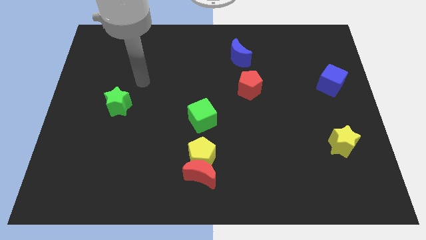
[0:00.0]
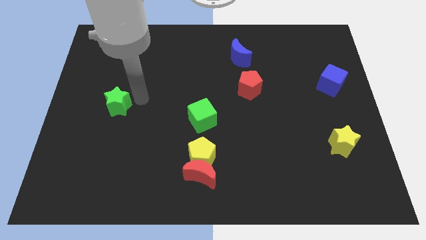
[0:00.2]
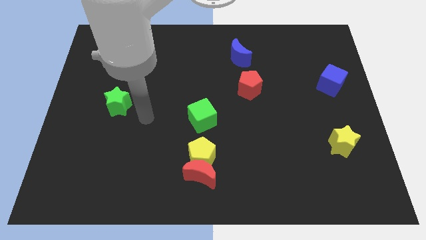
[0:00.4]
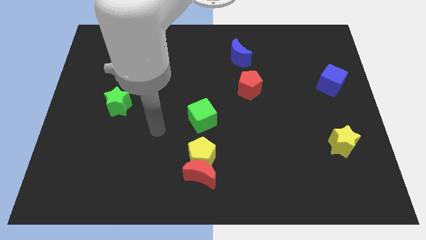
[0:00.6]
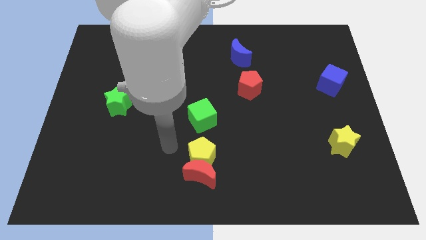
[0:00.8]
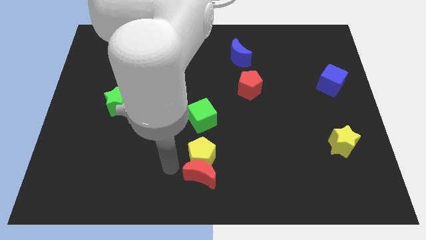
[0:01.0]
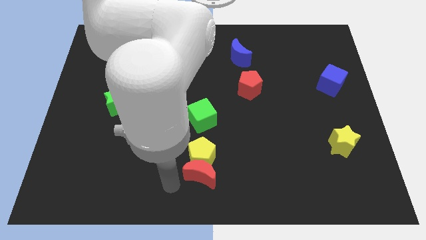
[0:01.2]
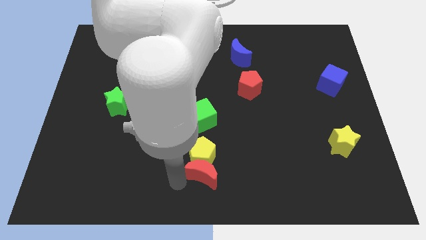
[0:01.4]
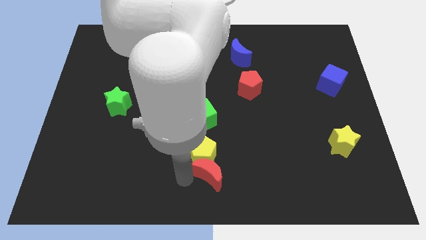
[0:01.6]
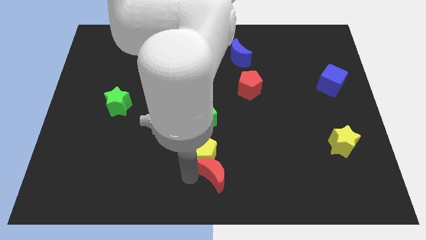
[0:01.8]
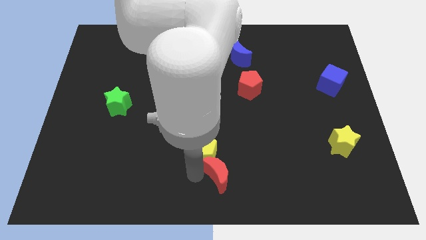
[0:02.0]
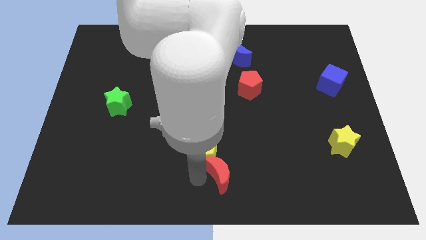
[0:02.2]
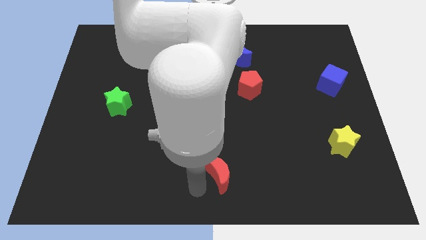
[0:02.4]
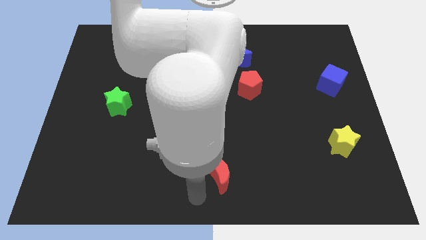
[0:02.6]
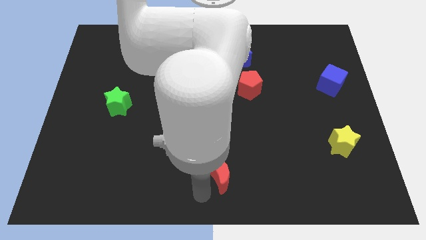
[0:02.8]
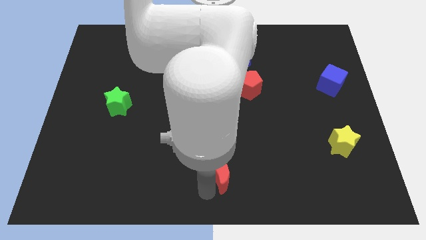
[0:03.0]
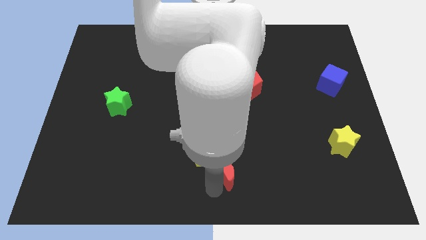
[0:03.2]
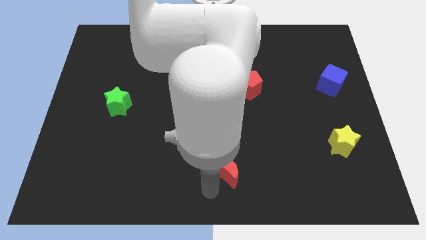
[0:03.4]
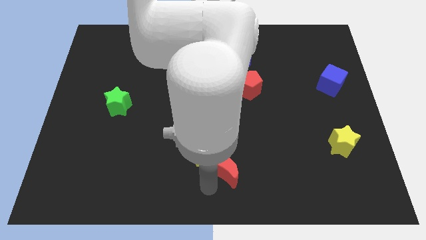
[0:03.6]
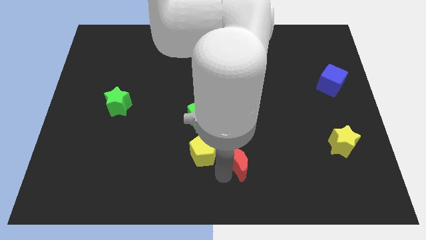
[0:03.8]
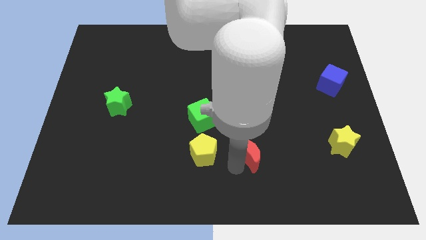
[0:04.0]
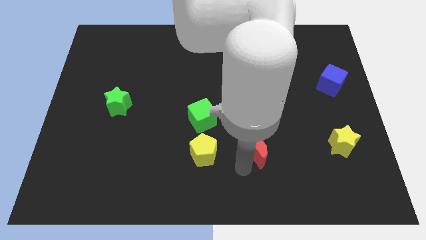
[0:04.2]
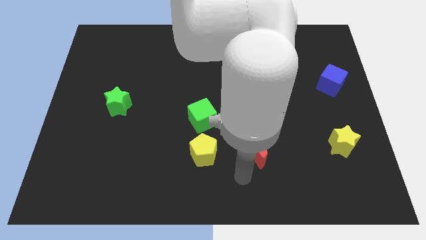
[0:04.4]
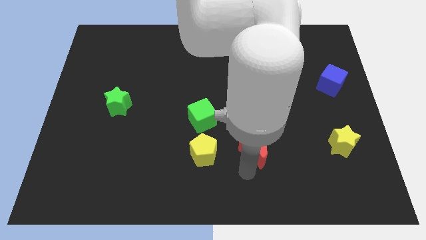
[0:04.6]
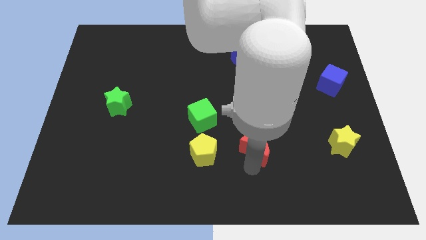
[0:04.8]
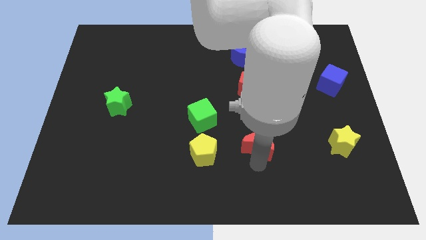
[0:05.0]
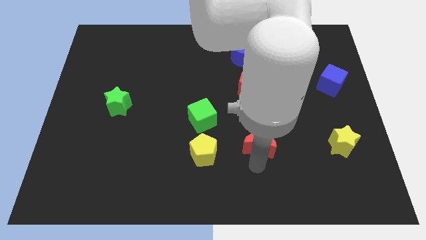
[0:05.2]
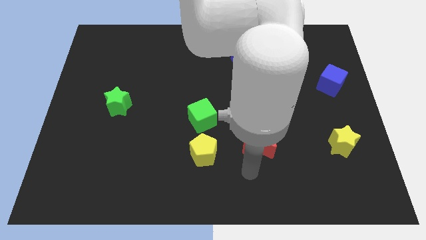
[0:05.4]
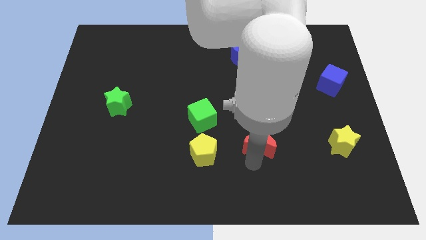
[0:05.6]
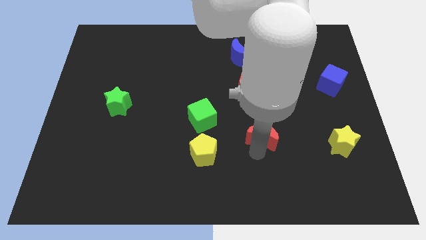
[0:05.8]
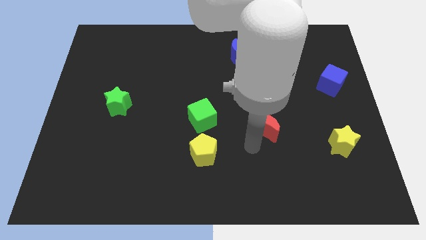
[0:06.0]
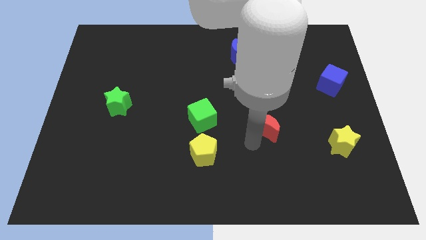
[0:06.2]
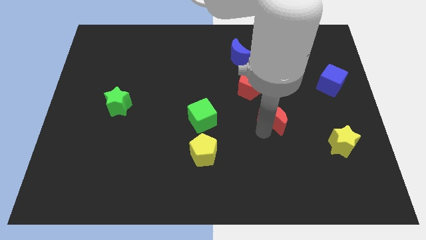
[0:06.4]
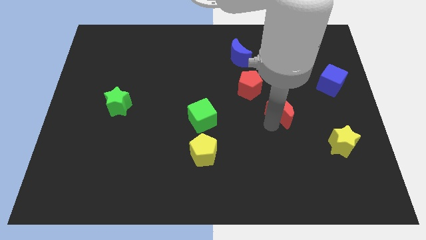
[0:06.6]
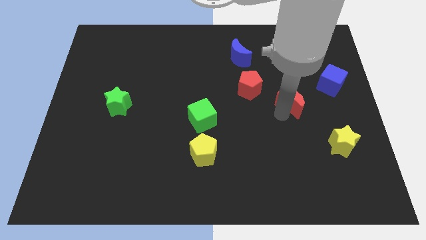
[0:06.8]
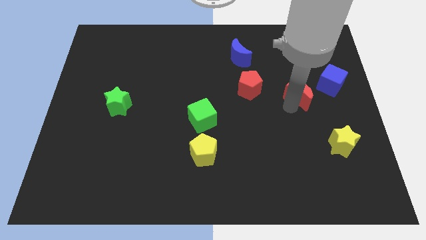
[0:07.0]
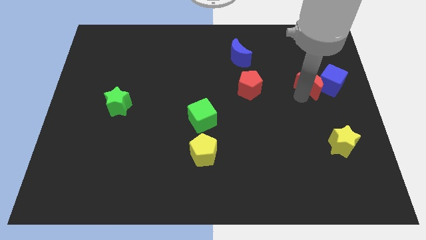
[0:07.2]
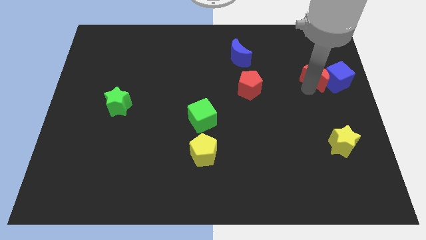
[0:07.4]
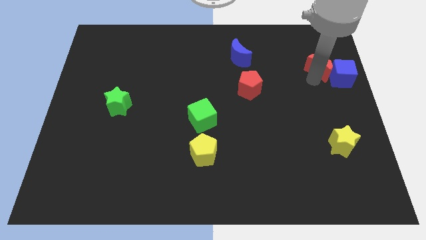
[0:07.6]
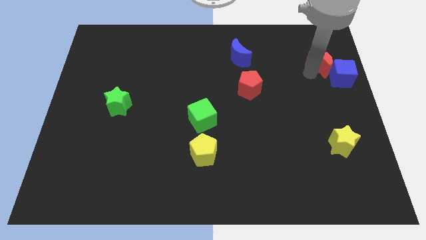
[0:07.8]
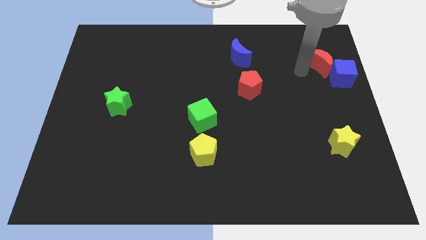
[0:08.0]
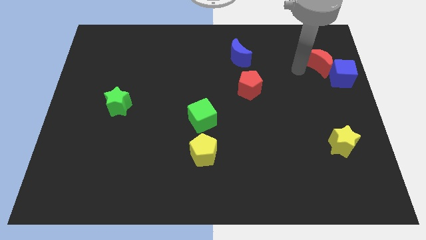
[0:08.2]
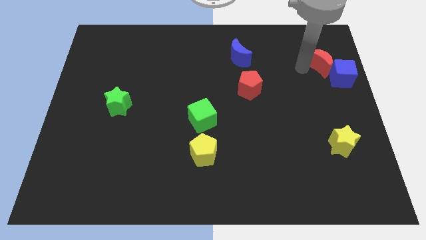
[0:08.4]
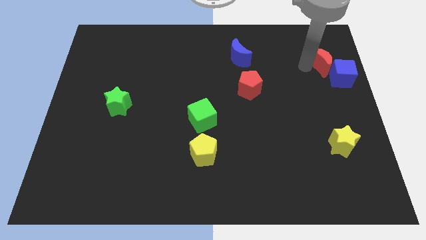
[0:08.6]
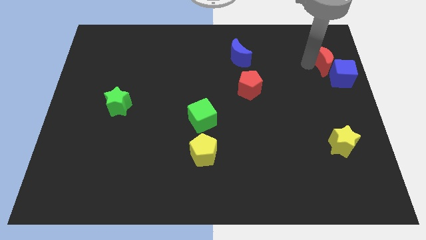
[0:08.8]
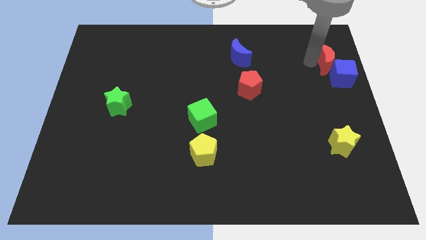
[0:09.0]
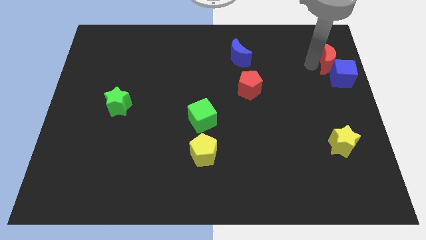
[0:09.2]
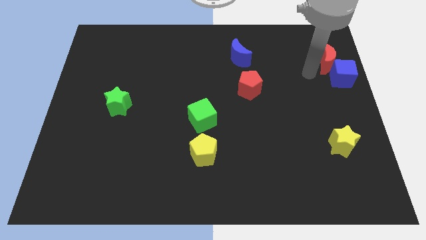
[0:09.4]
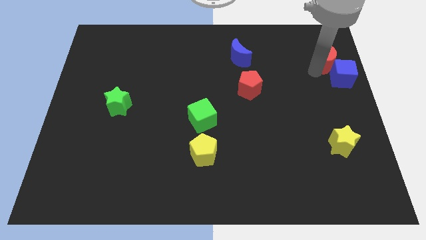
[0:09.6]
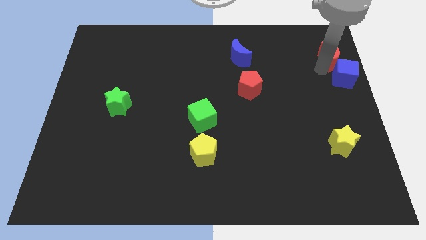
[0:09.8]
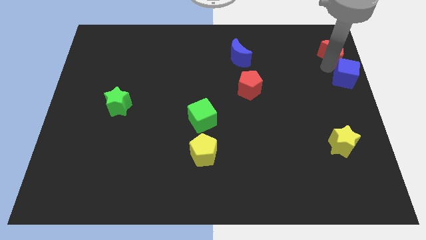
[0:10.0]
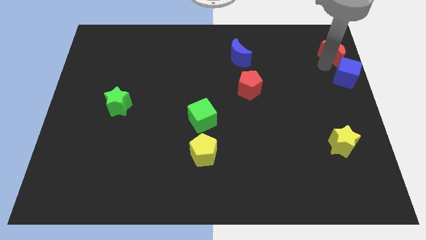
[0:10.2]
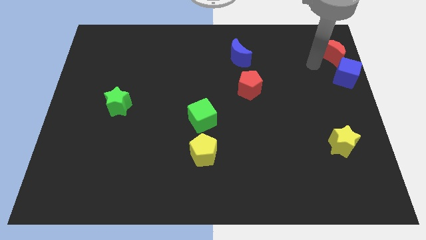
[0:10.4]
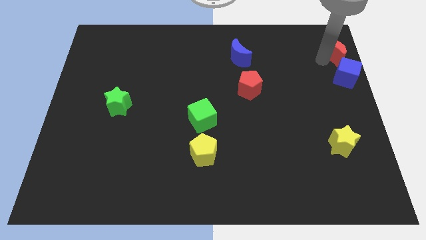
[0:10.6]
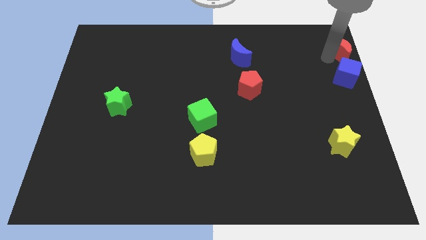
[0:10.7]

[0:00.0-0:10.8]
push the red moon to the top right of the board
